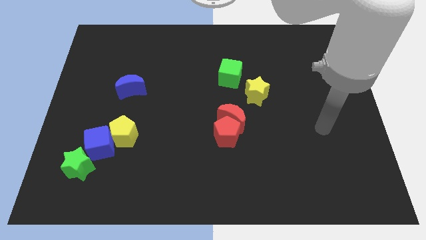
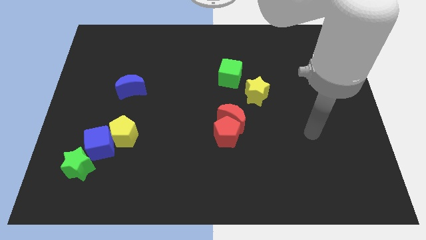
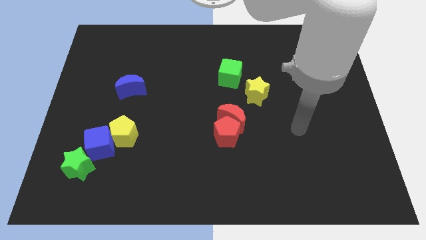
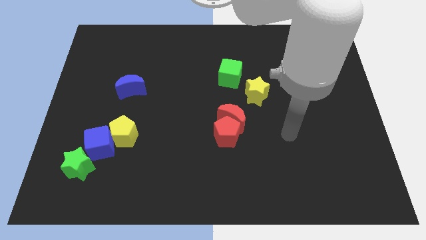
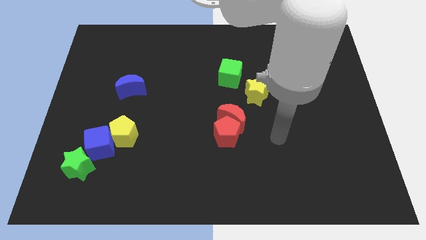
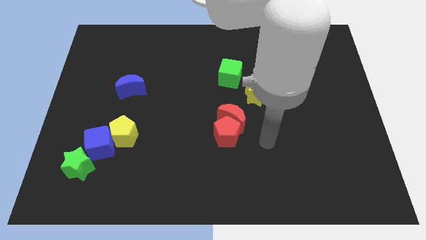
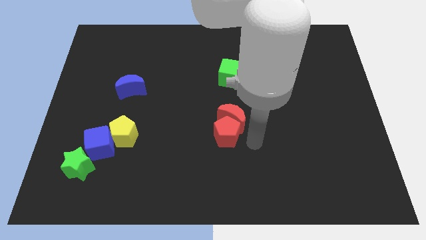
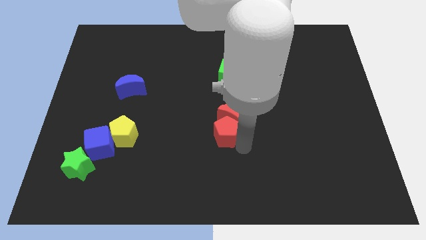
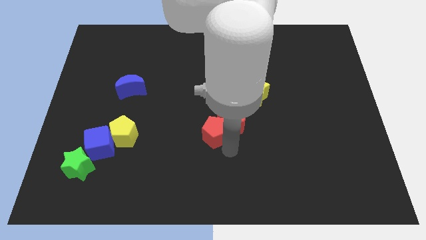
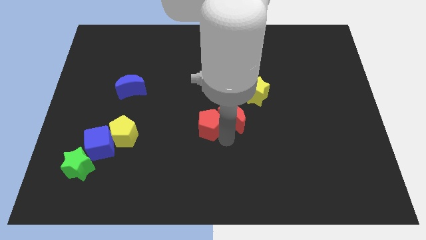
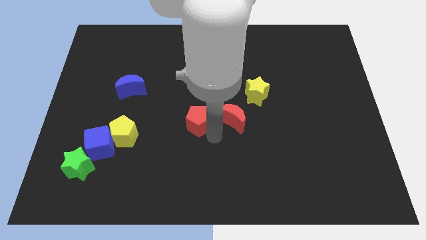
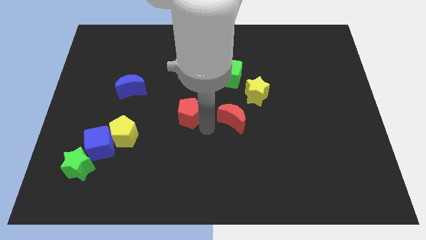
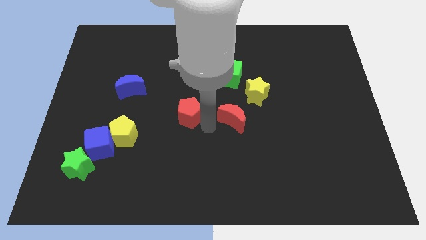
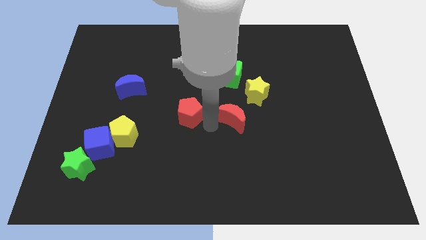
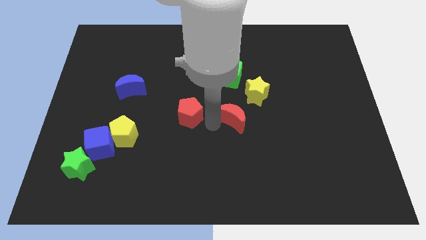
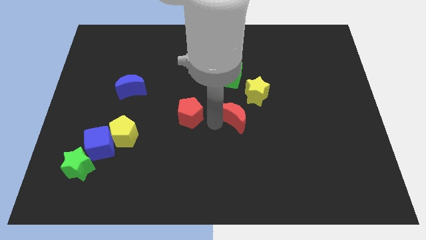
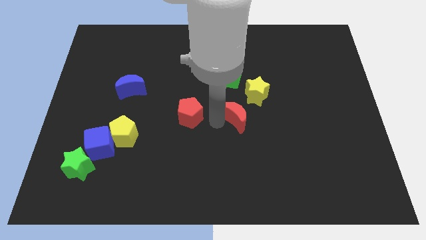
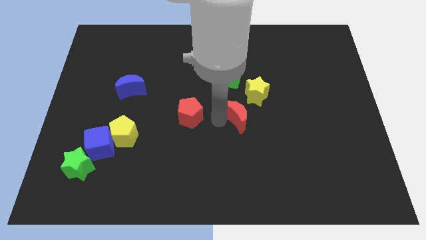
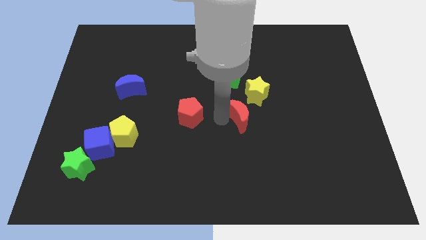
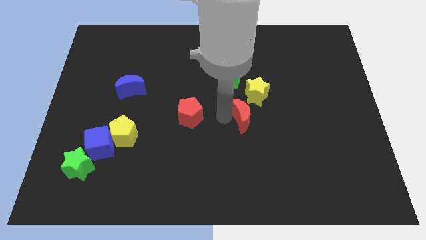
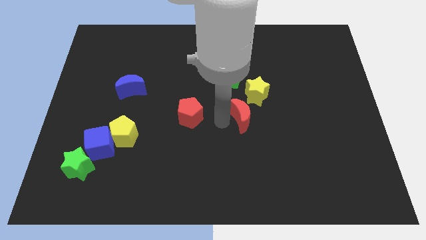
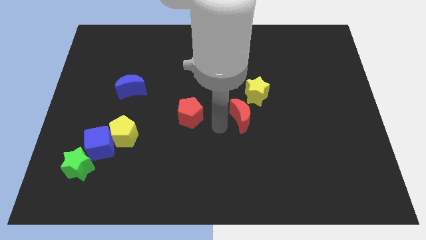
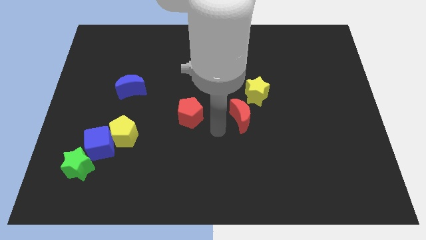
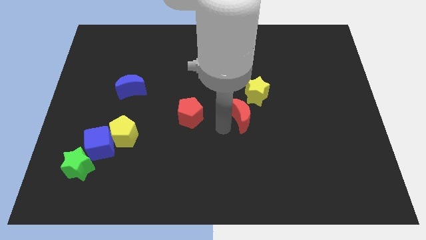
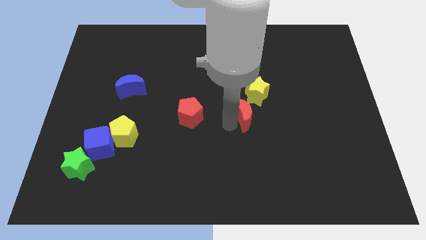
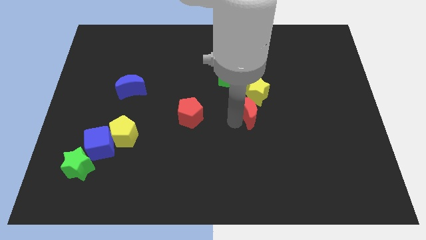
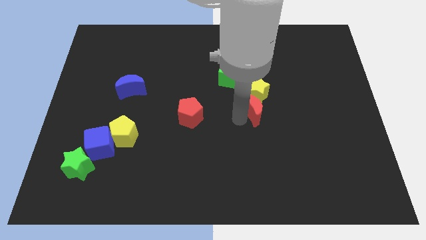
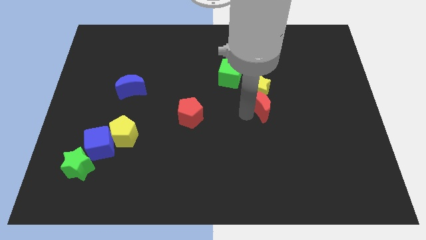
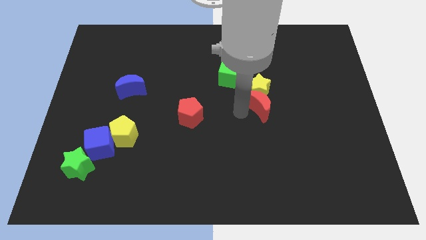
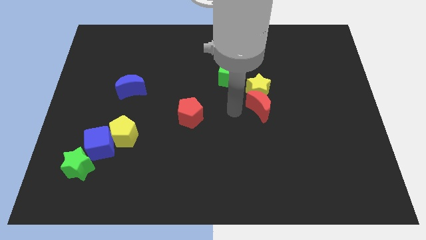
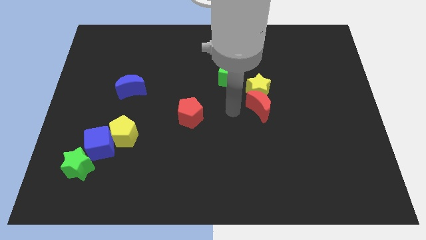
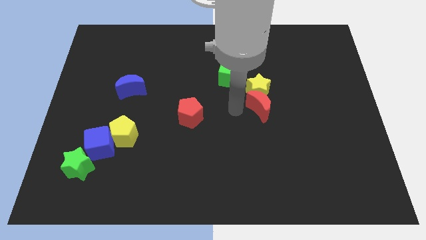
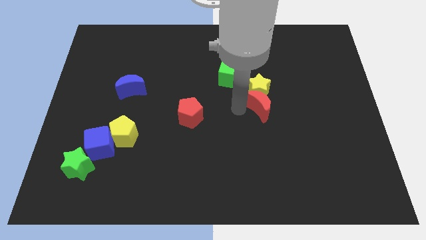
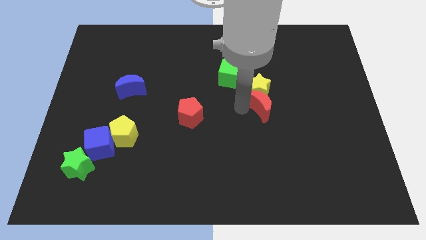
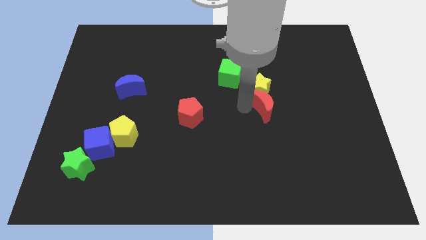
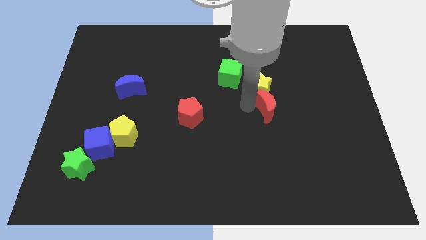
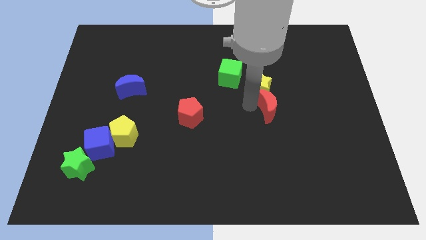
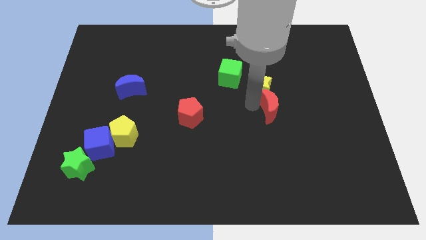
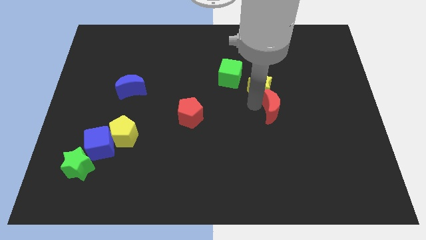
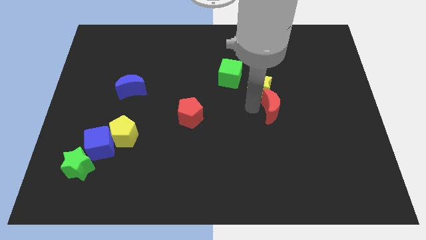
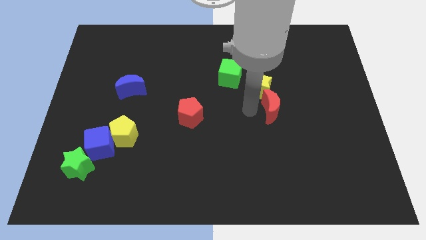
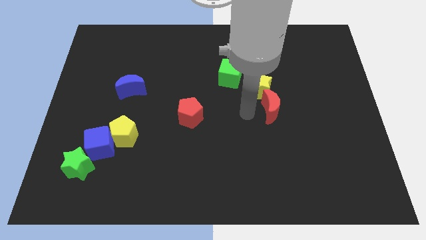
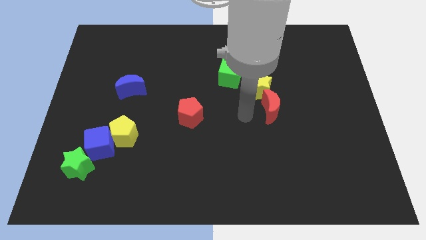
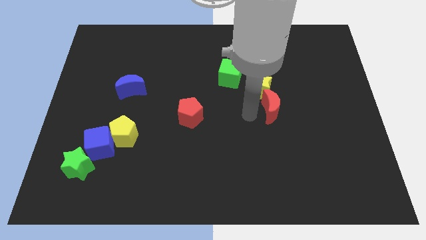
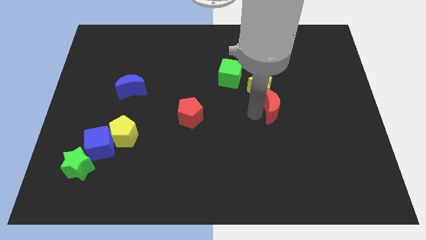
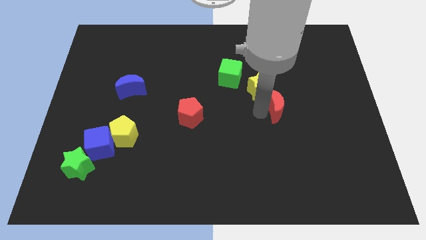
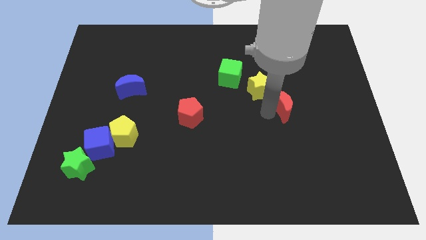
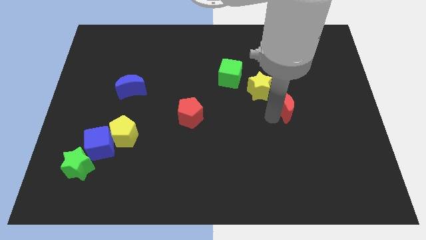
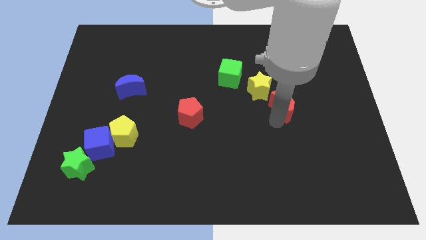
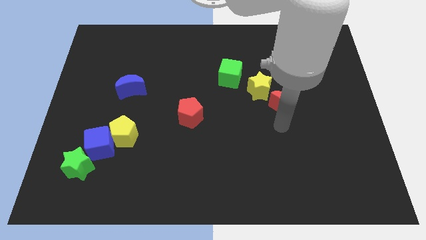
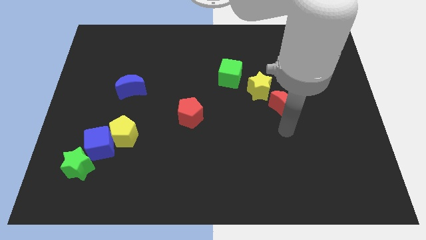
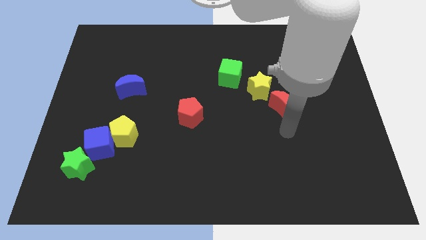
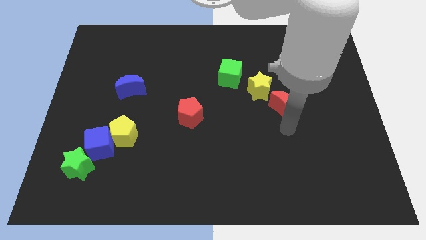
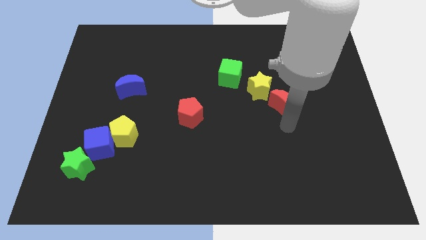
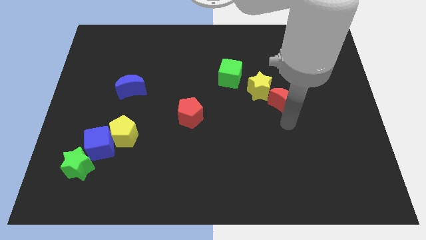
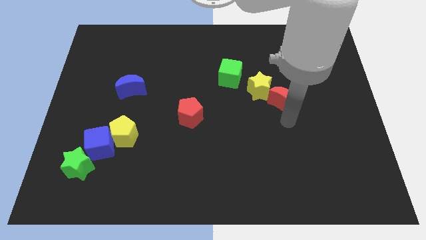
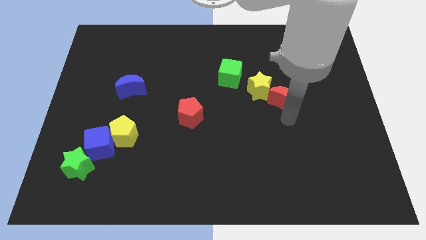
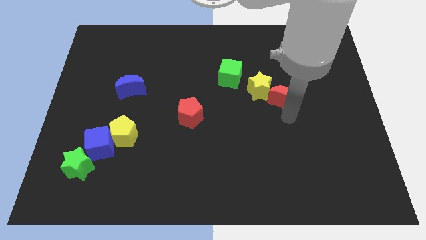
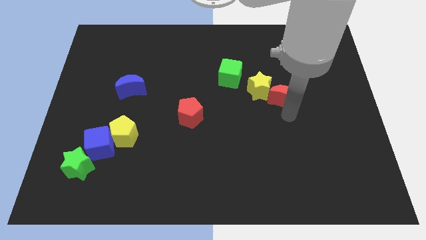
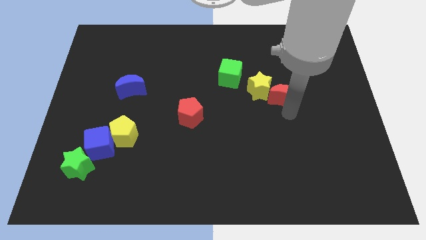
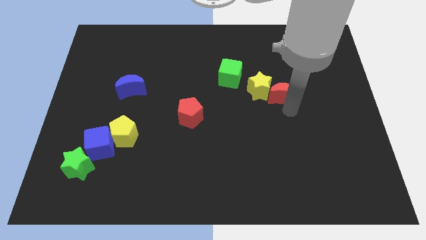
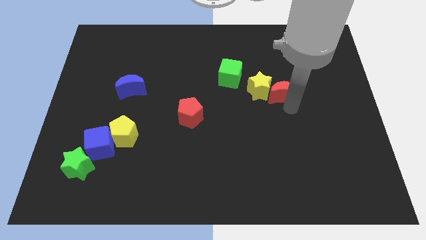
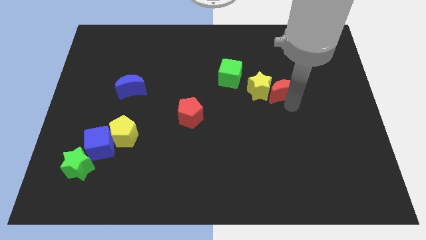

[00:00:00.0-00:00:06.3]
move the red moon to the top right of the yellow star

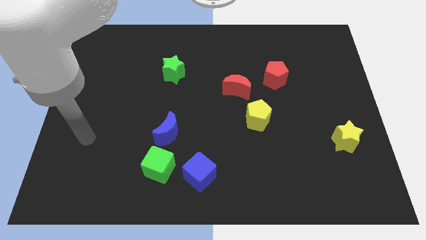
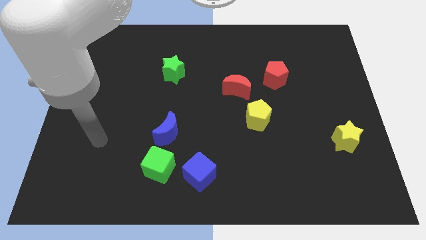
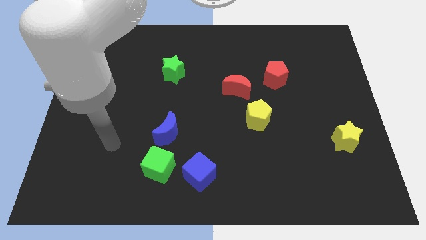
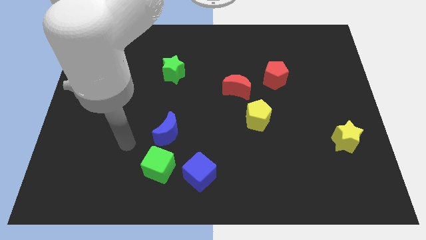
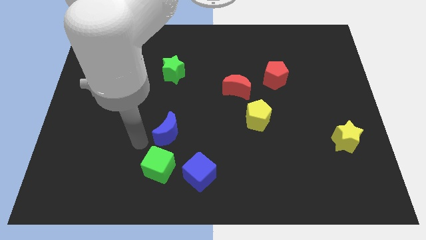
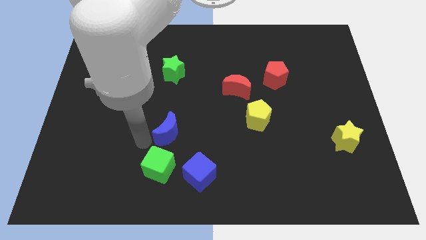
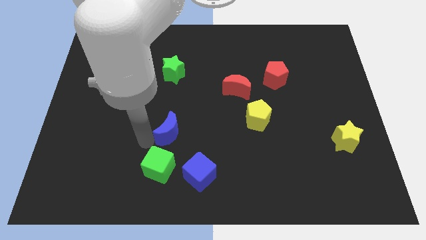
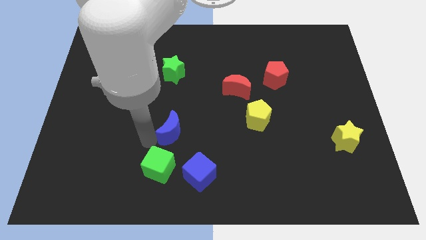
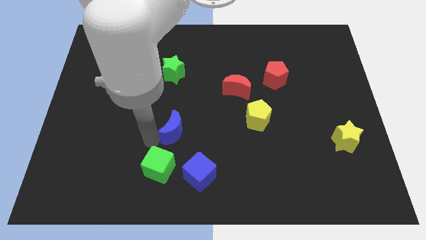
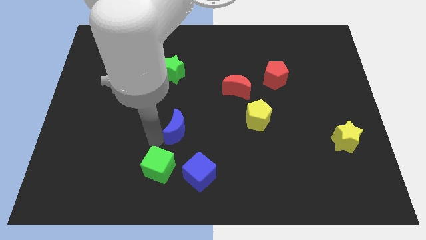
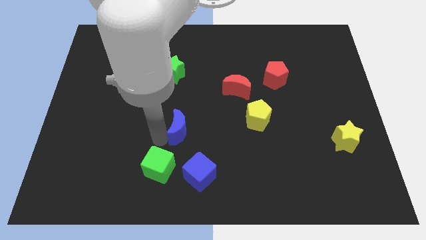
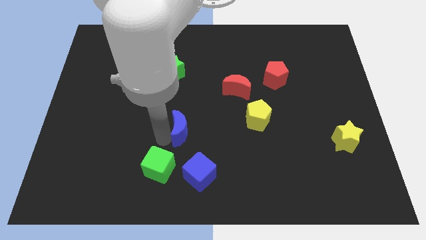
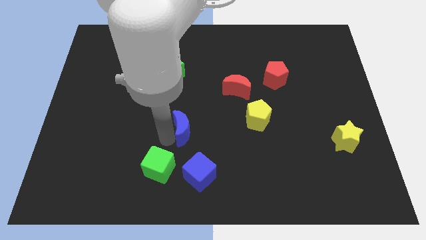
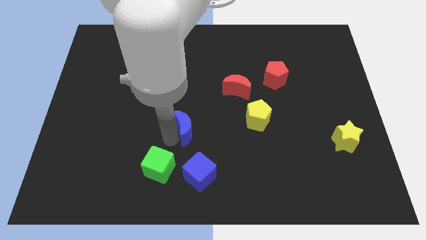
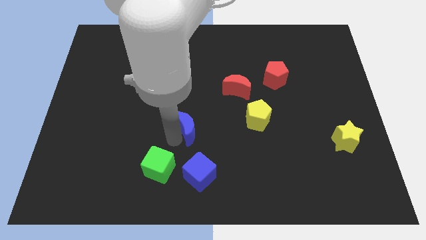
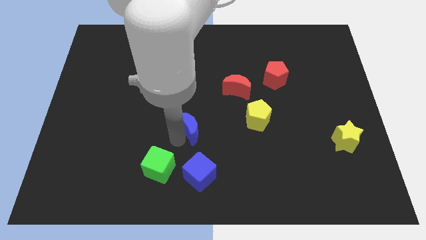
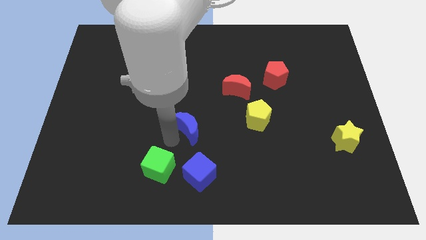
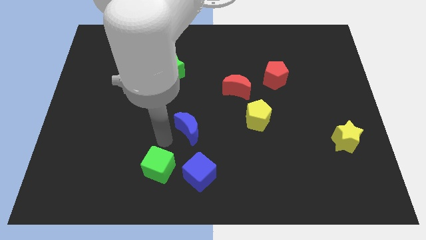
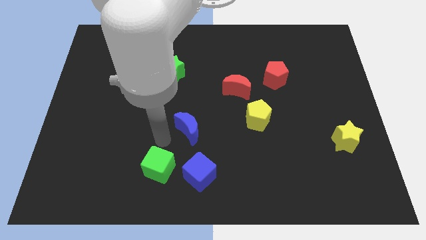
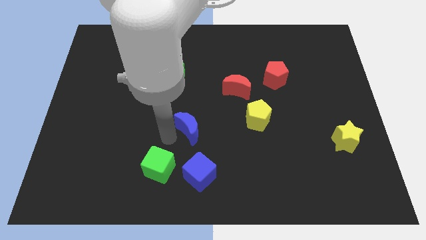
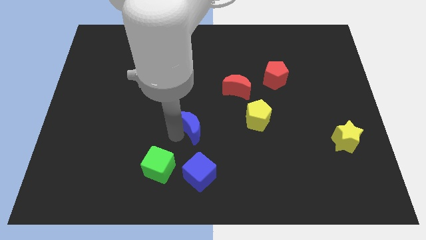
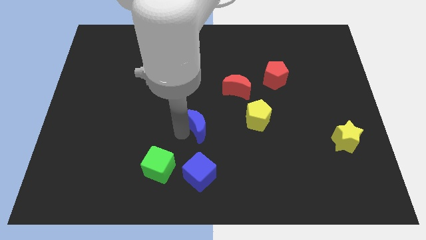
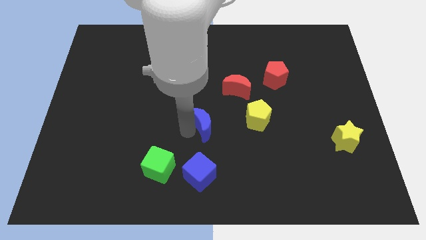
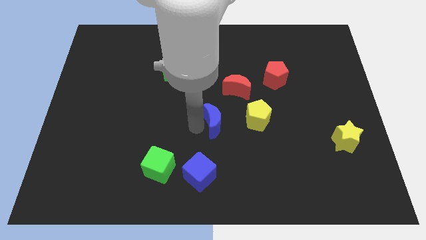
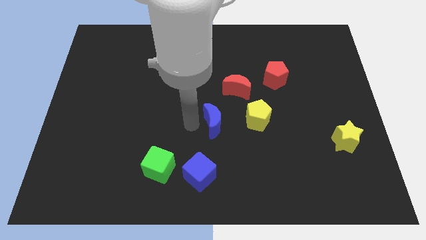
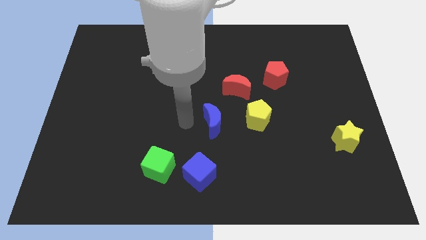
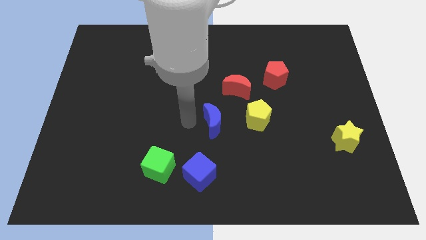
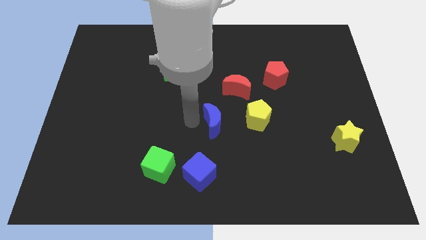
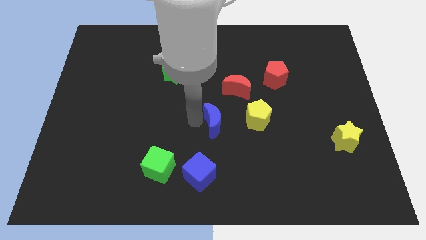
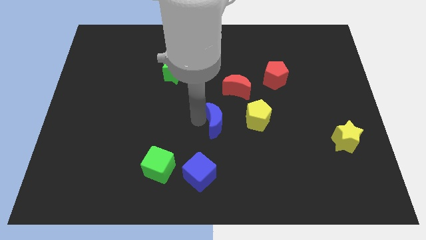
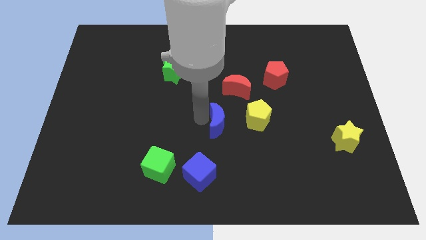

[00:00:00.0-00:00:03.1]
push the blue moon to the bottom of the red moon
